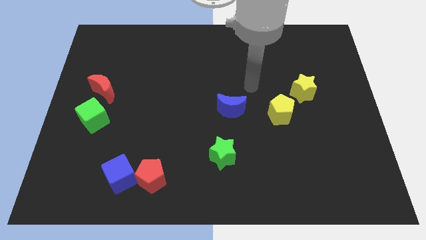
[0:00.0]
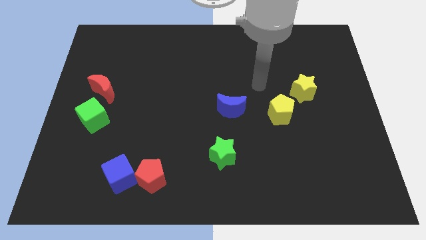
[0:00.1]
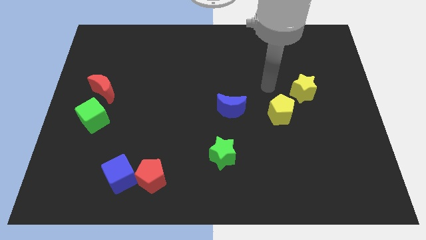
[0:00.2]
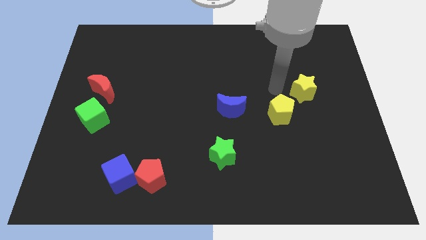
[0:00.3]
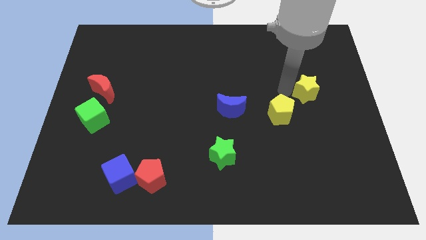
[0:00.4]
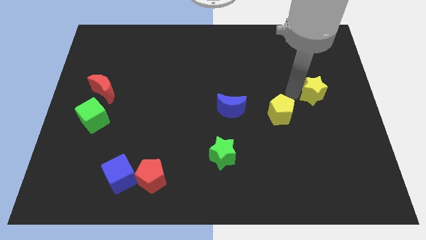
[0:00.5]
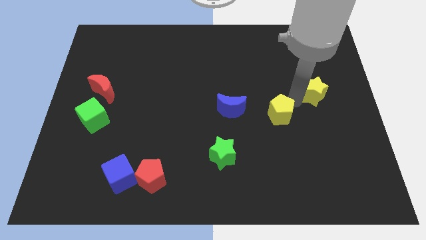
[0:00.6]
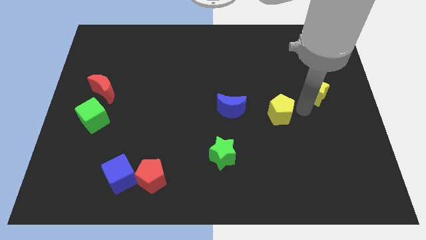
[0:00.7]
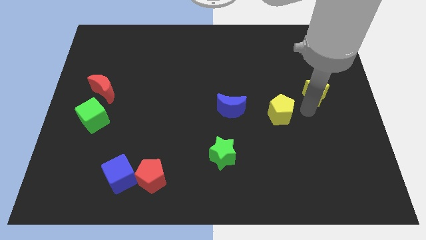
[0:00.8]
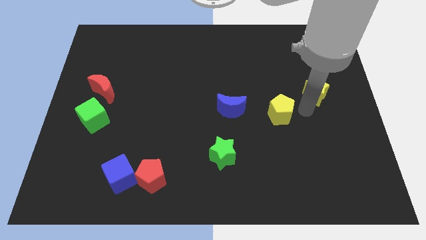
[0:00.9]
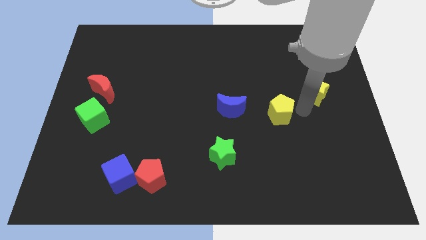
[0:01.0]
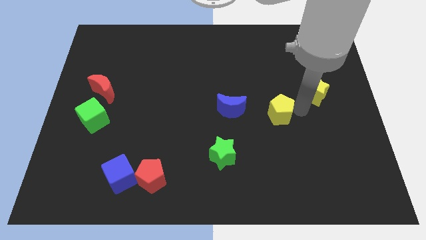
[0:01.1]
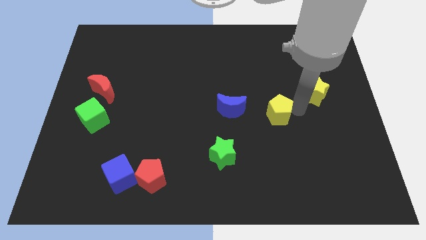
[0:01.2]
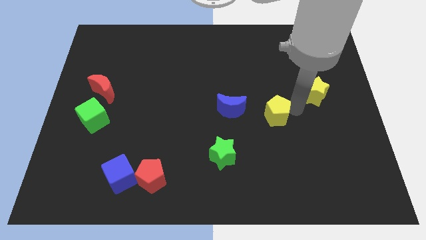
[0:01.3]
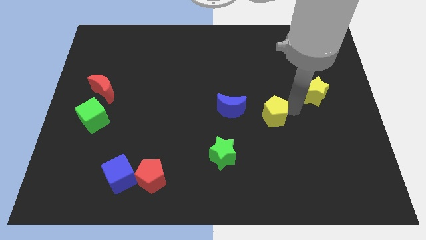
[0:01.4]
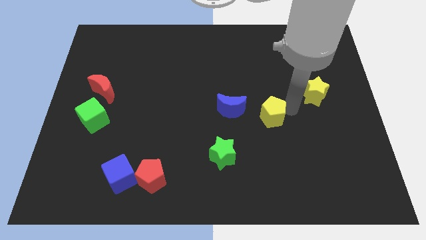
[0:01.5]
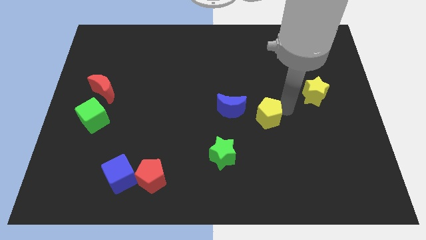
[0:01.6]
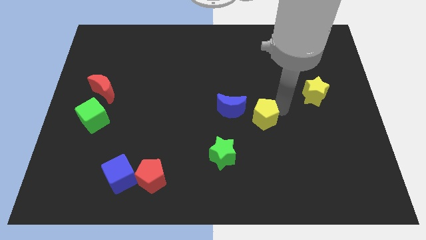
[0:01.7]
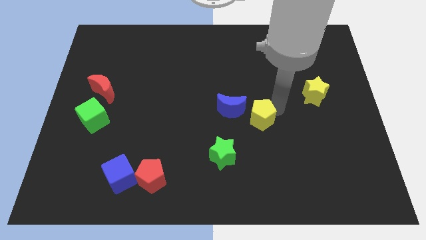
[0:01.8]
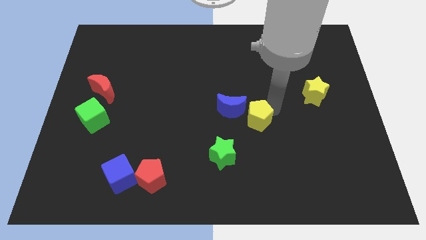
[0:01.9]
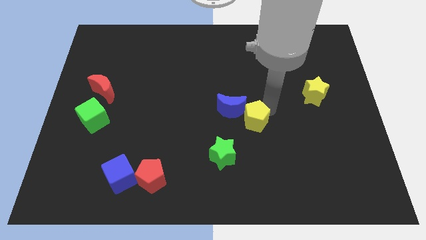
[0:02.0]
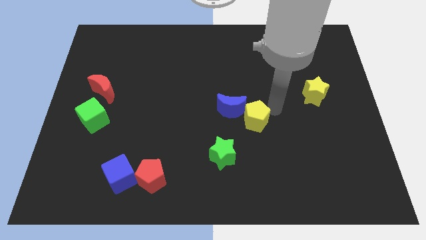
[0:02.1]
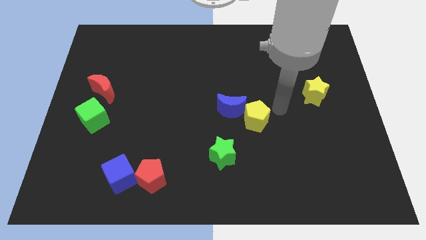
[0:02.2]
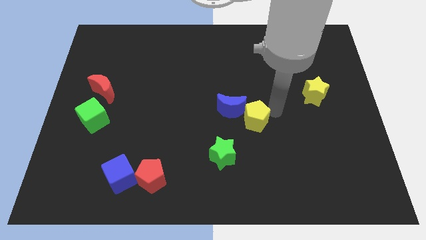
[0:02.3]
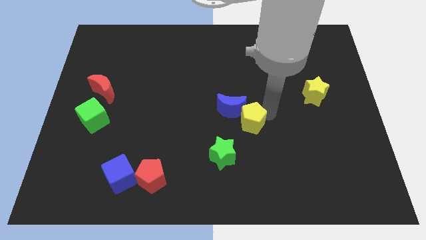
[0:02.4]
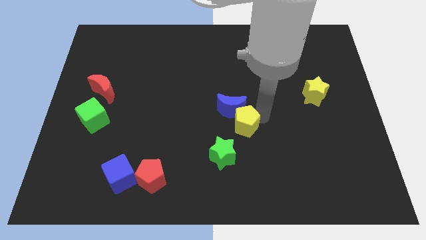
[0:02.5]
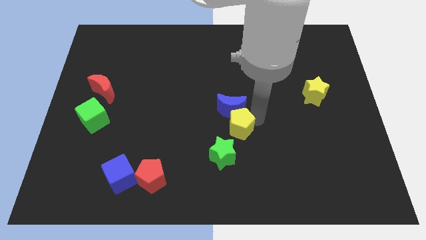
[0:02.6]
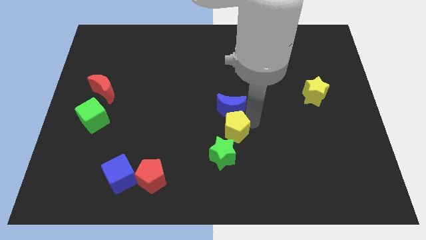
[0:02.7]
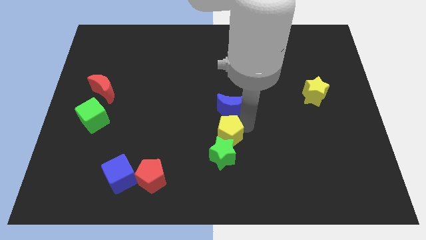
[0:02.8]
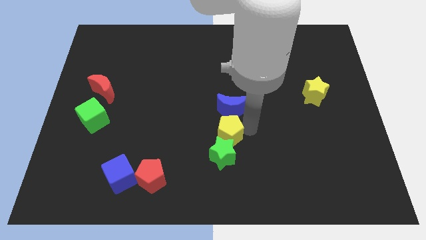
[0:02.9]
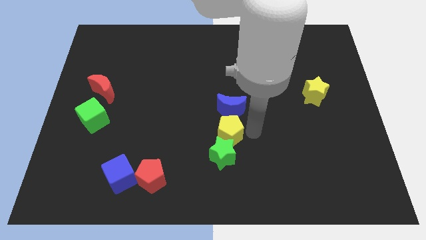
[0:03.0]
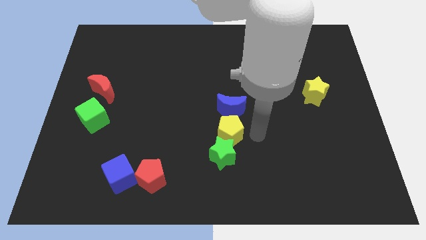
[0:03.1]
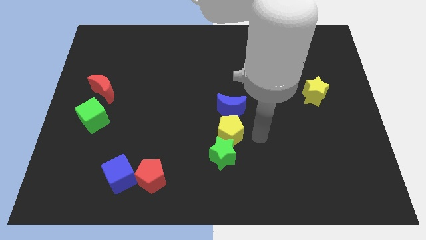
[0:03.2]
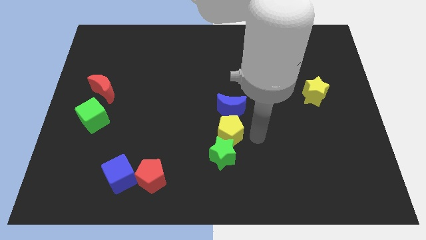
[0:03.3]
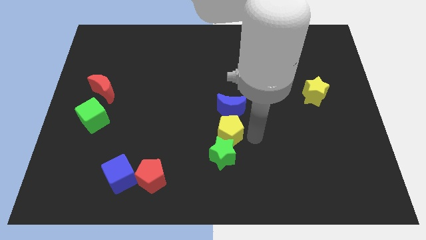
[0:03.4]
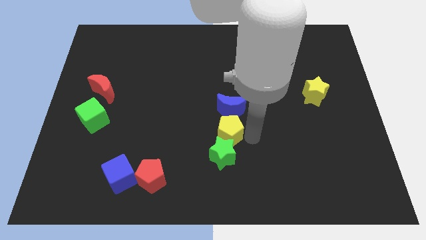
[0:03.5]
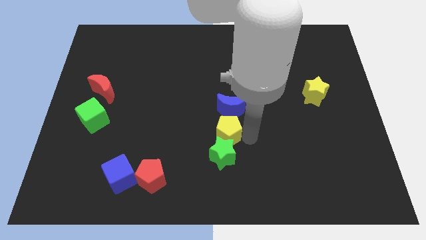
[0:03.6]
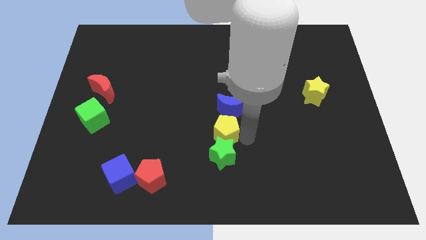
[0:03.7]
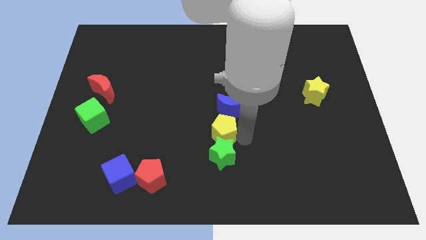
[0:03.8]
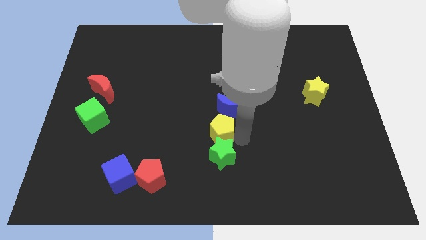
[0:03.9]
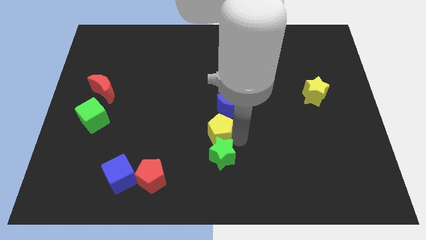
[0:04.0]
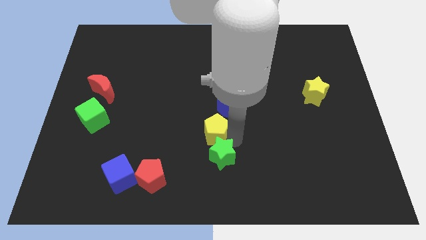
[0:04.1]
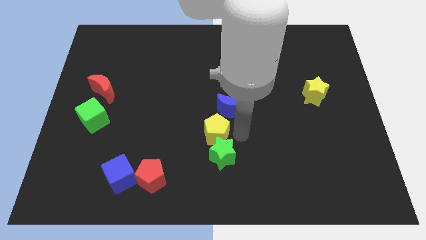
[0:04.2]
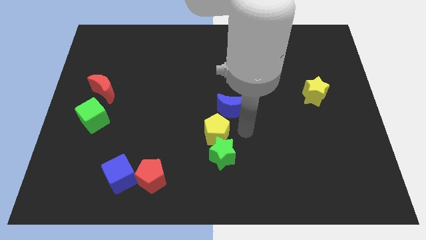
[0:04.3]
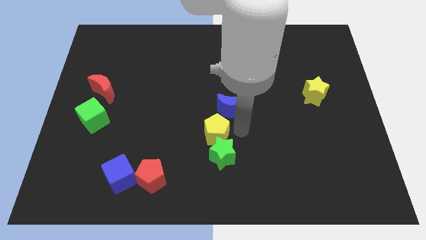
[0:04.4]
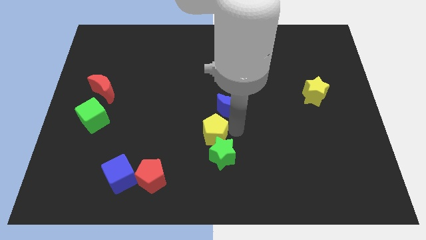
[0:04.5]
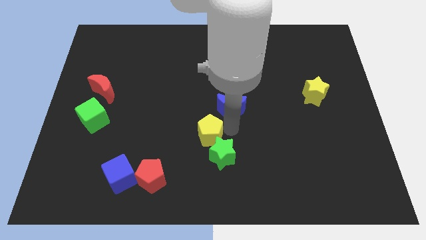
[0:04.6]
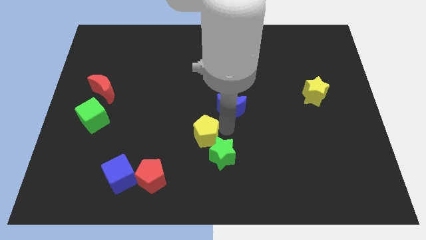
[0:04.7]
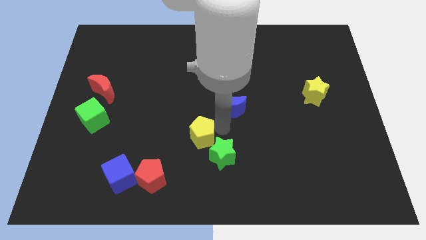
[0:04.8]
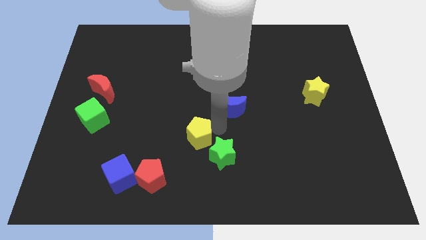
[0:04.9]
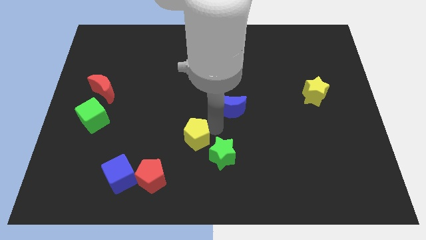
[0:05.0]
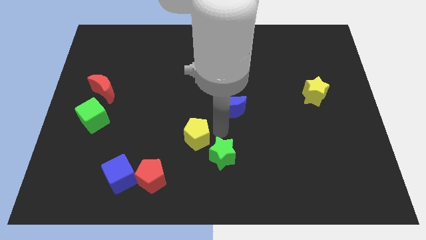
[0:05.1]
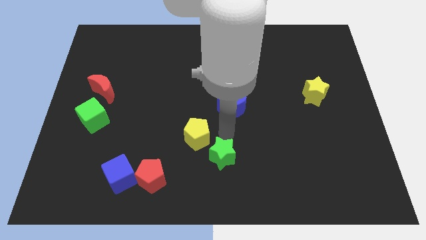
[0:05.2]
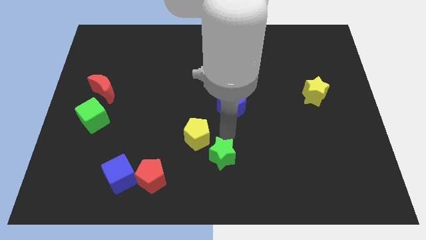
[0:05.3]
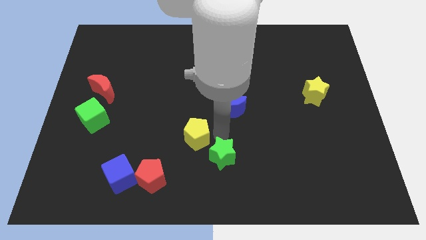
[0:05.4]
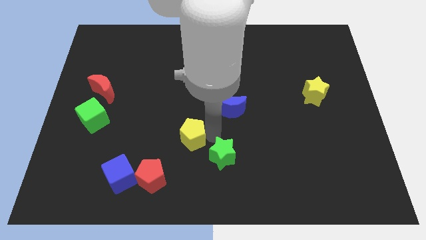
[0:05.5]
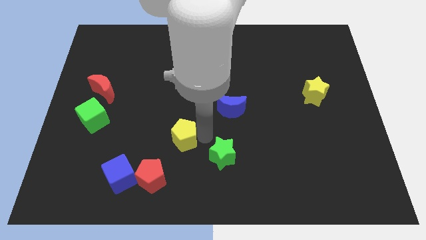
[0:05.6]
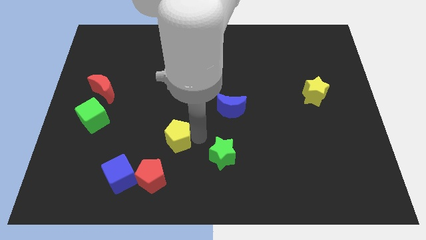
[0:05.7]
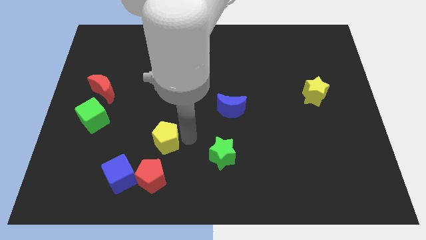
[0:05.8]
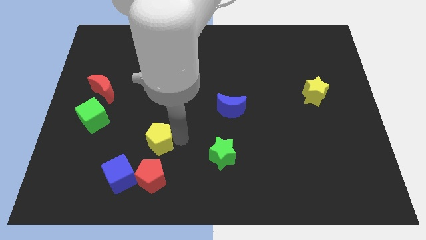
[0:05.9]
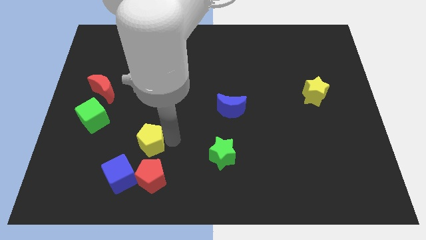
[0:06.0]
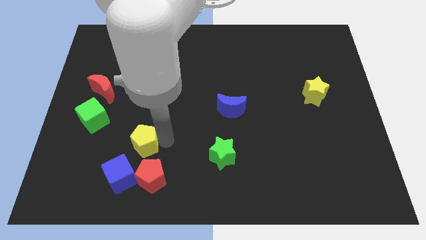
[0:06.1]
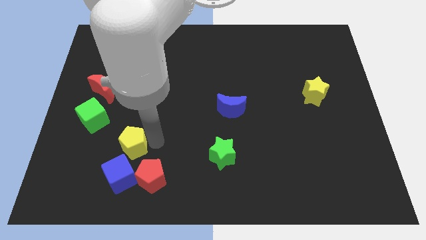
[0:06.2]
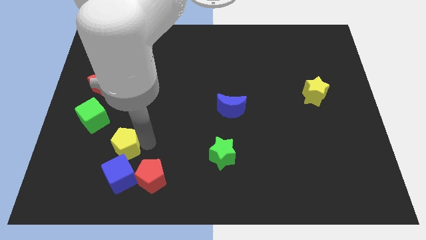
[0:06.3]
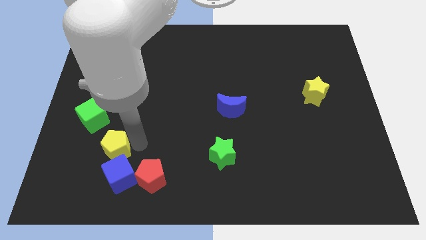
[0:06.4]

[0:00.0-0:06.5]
slide the yellow pentagon to the top left of the blue cube

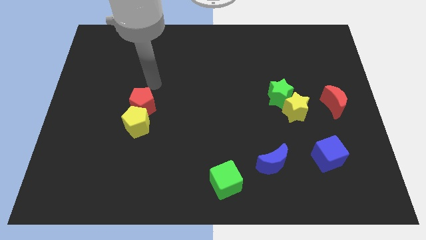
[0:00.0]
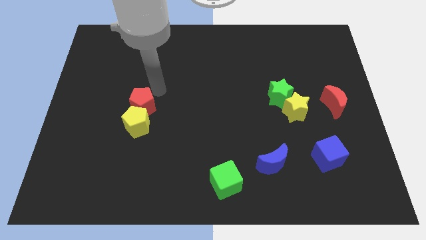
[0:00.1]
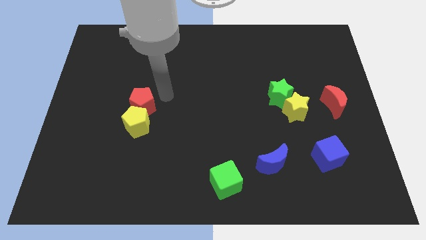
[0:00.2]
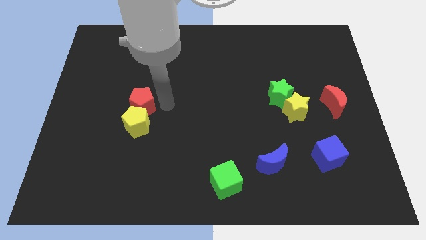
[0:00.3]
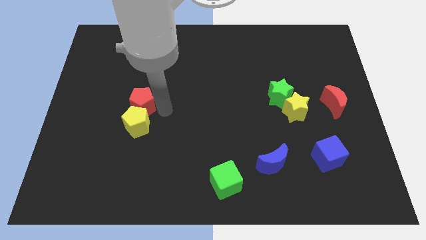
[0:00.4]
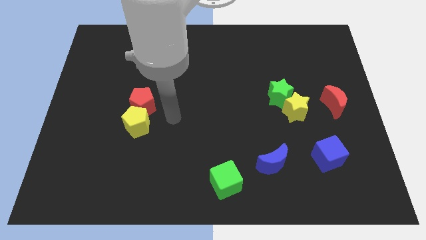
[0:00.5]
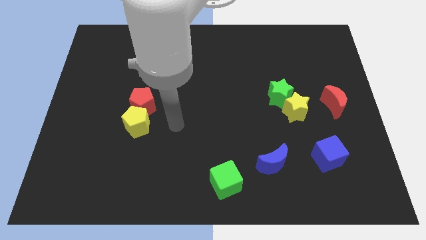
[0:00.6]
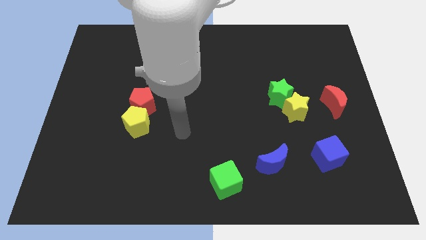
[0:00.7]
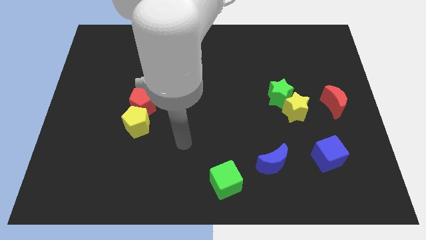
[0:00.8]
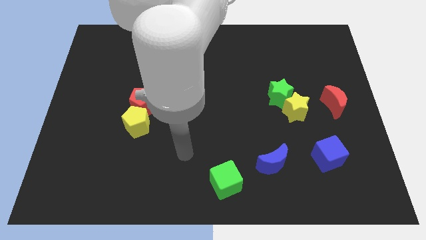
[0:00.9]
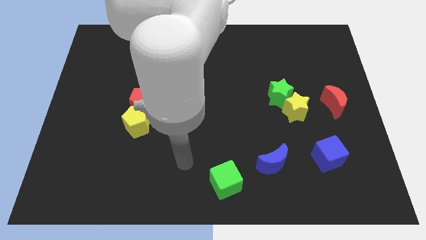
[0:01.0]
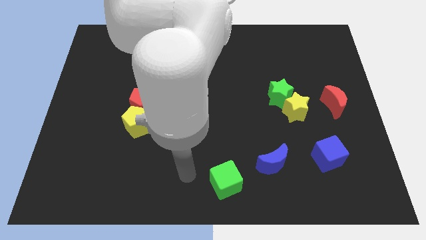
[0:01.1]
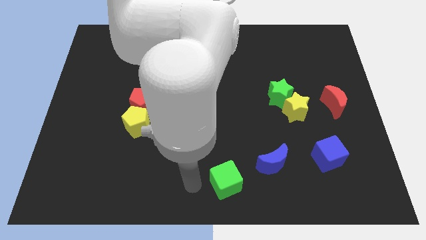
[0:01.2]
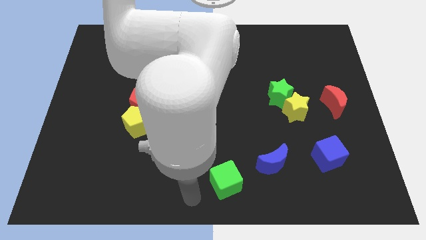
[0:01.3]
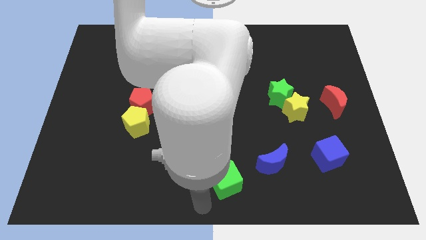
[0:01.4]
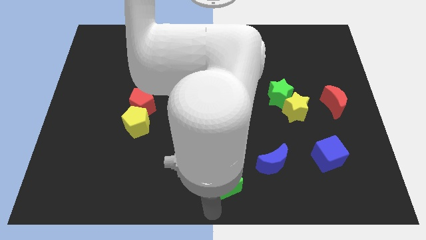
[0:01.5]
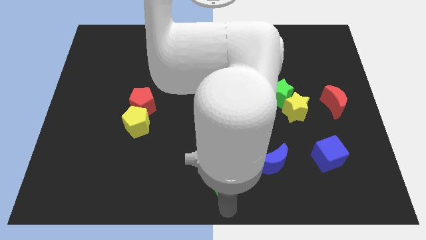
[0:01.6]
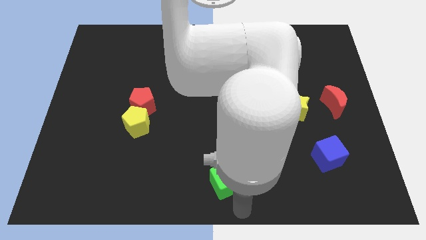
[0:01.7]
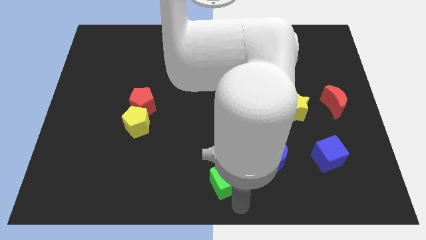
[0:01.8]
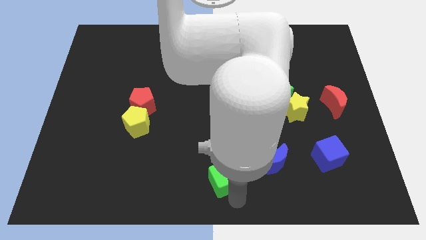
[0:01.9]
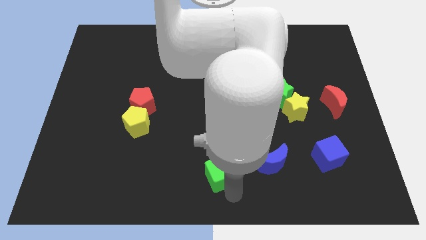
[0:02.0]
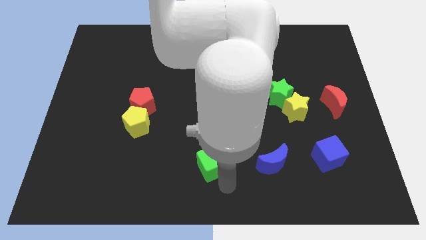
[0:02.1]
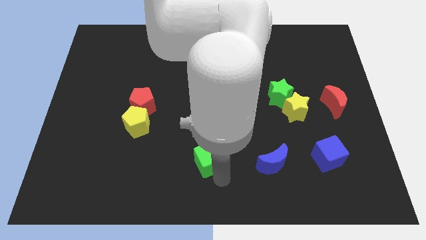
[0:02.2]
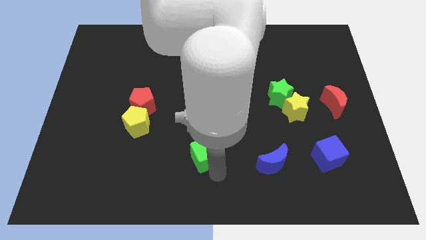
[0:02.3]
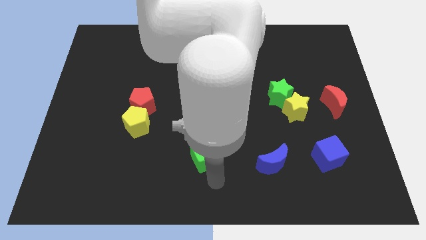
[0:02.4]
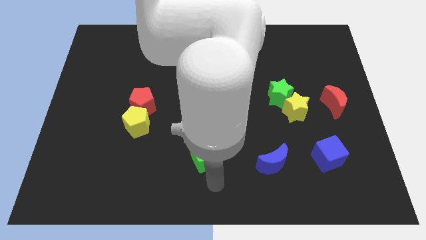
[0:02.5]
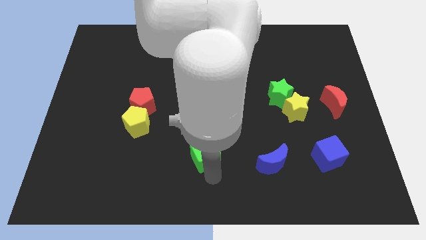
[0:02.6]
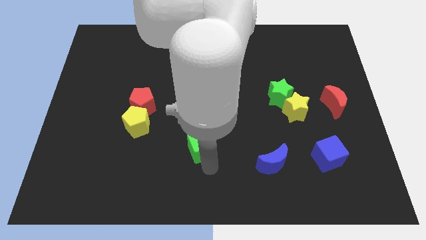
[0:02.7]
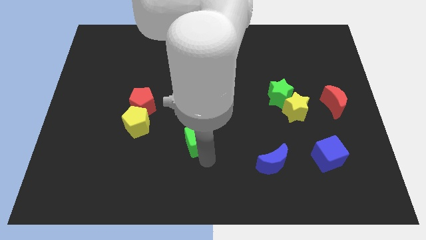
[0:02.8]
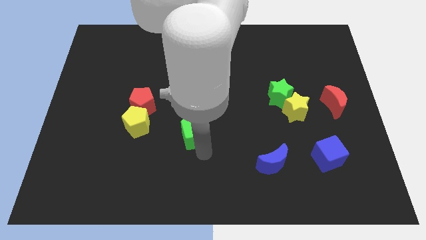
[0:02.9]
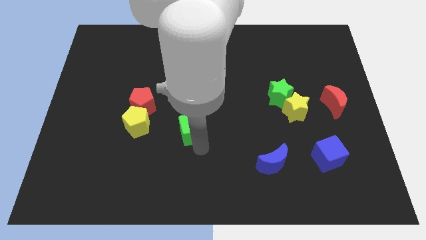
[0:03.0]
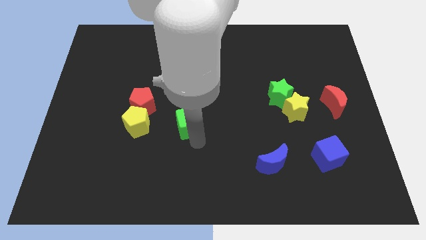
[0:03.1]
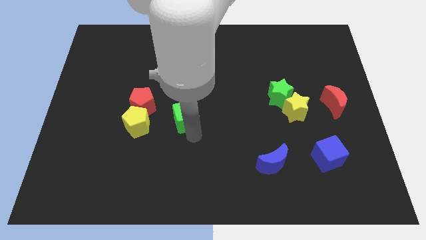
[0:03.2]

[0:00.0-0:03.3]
slide the green cube just right of the red pentagon
